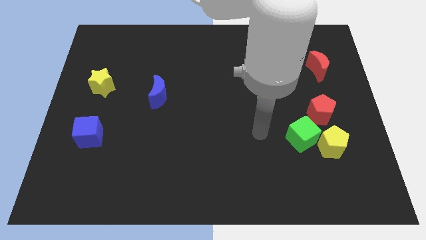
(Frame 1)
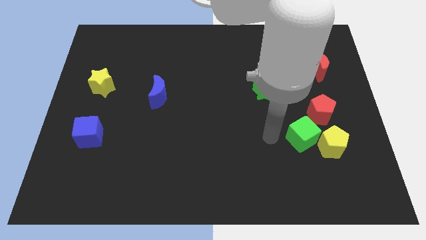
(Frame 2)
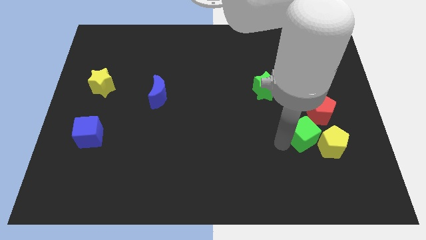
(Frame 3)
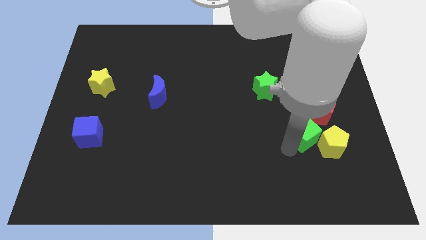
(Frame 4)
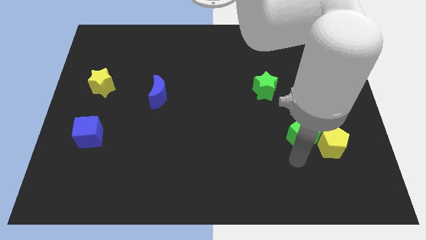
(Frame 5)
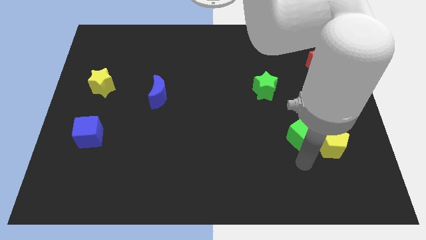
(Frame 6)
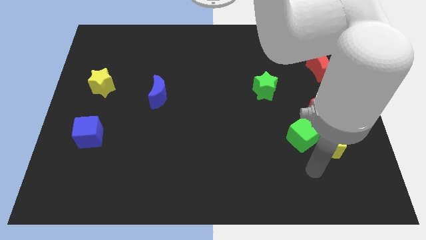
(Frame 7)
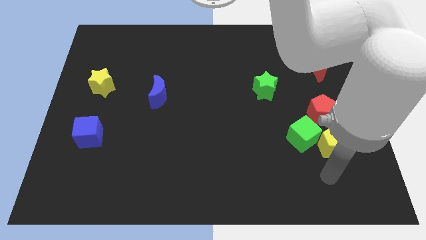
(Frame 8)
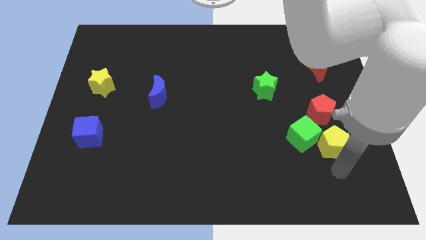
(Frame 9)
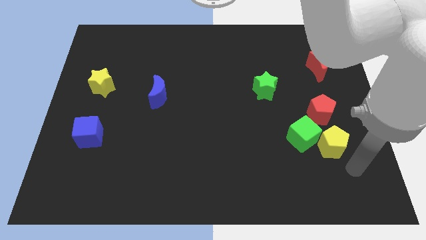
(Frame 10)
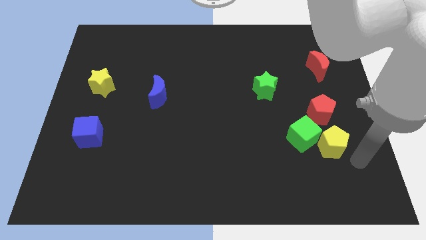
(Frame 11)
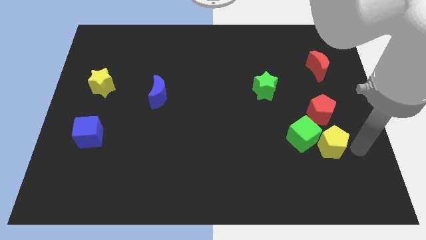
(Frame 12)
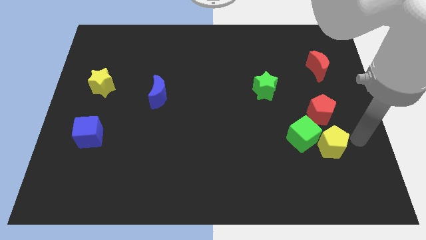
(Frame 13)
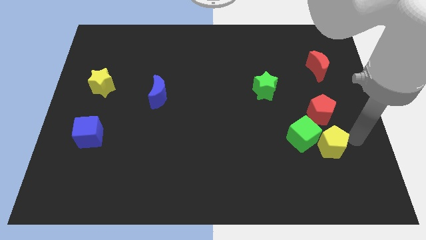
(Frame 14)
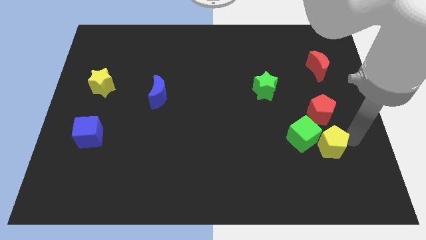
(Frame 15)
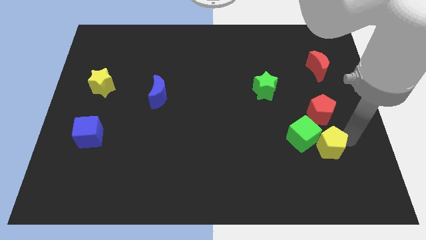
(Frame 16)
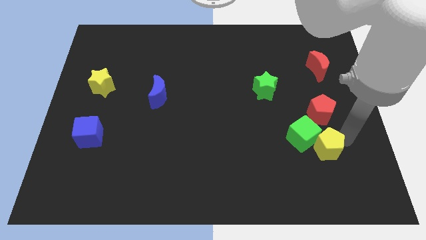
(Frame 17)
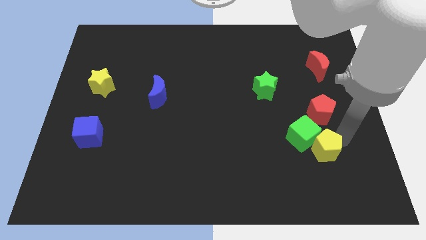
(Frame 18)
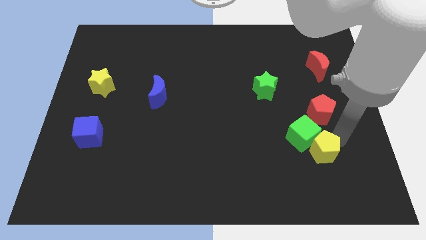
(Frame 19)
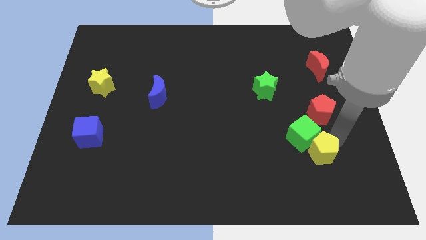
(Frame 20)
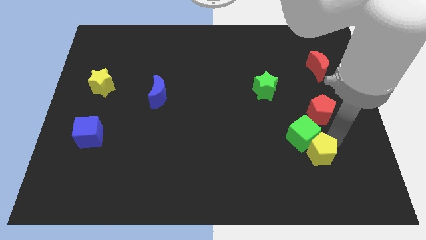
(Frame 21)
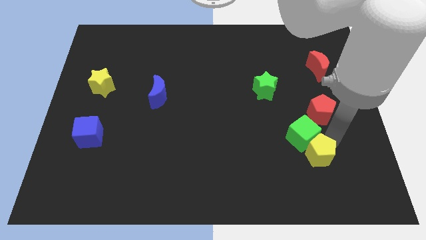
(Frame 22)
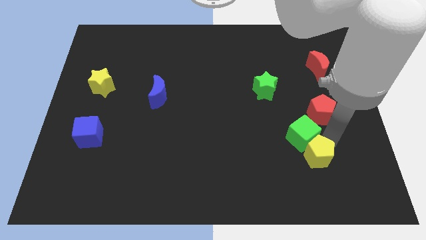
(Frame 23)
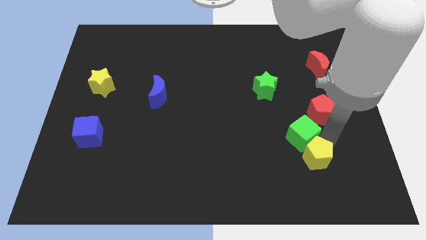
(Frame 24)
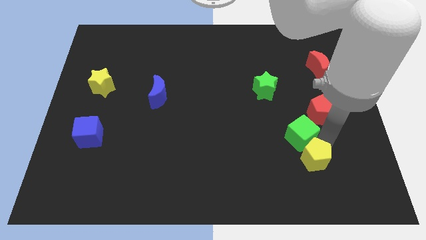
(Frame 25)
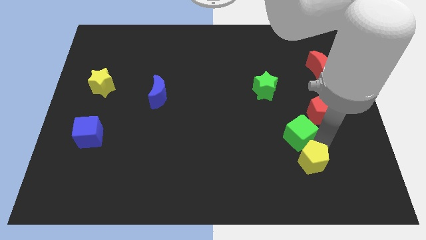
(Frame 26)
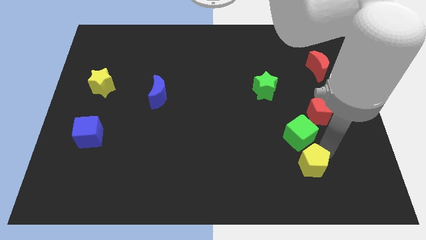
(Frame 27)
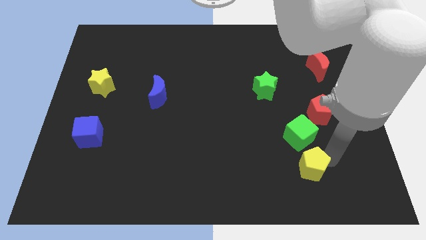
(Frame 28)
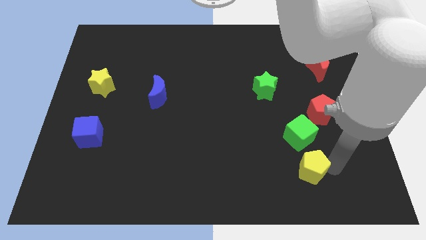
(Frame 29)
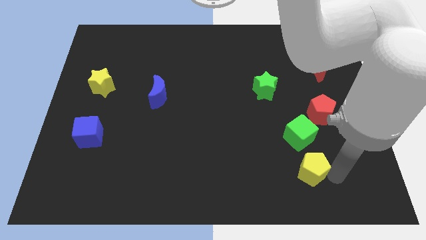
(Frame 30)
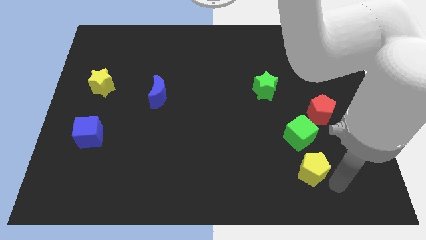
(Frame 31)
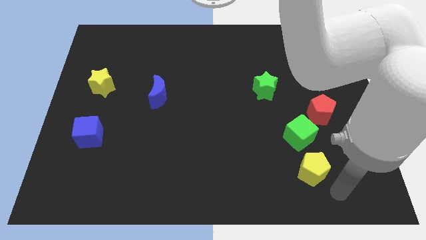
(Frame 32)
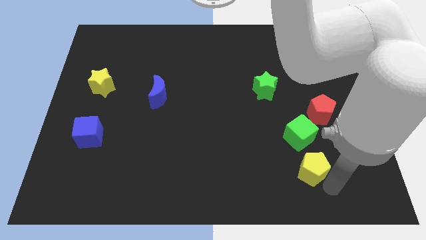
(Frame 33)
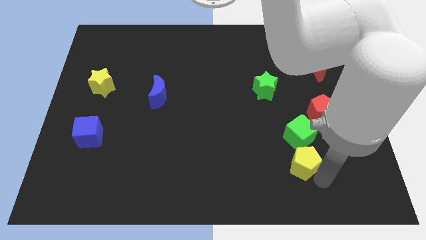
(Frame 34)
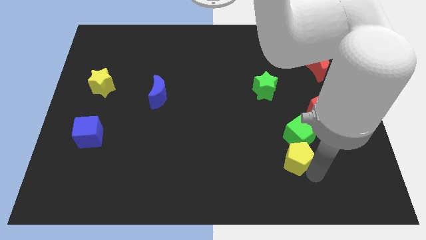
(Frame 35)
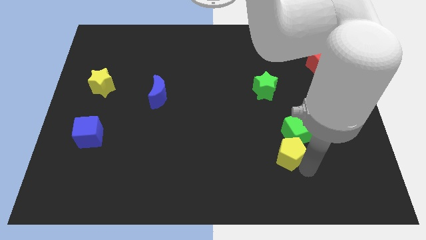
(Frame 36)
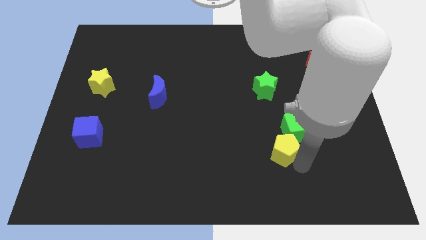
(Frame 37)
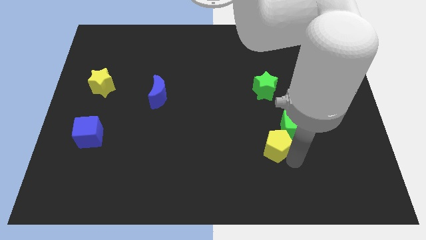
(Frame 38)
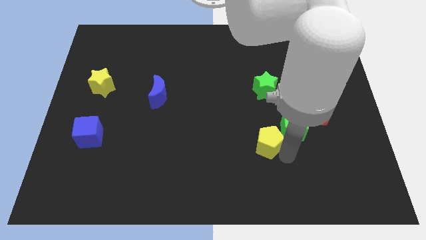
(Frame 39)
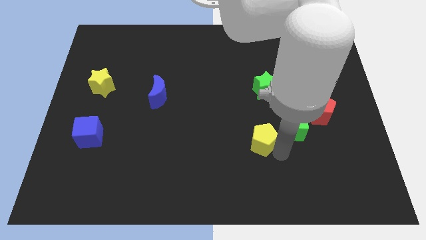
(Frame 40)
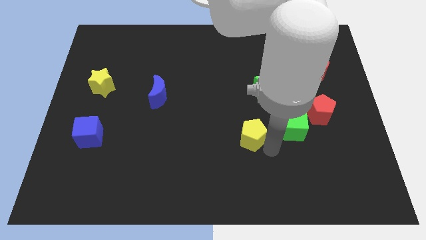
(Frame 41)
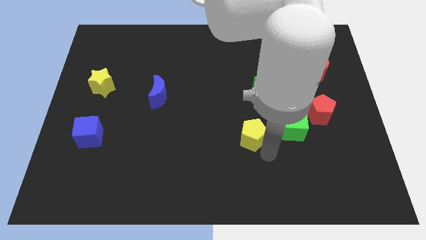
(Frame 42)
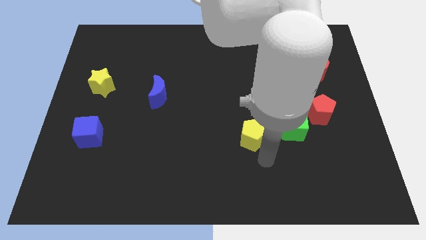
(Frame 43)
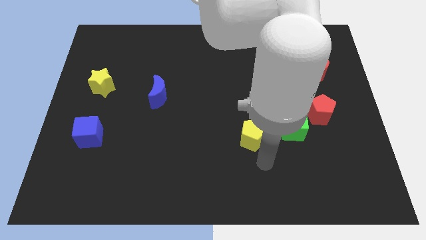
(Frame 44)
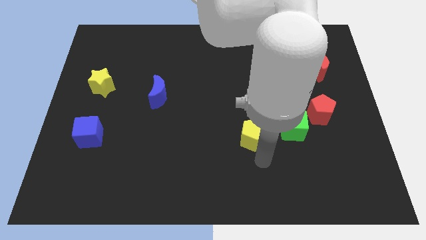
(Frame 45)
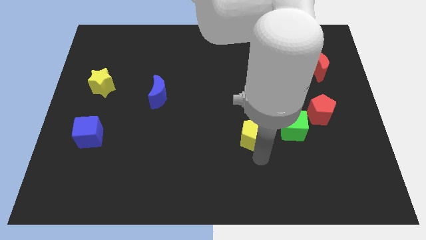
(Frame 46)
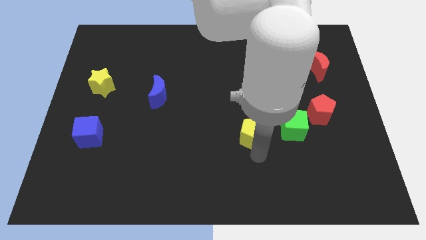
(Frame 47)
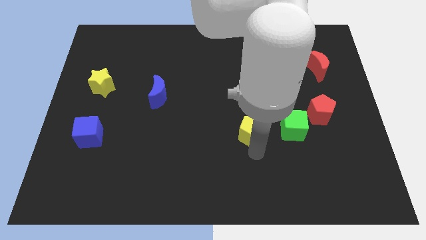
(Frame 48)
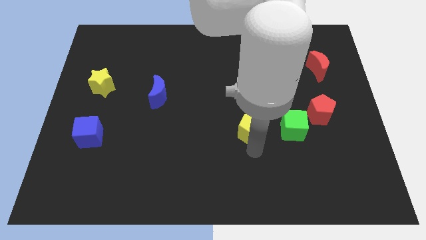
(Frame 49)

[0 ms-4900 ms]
move the yellow pentagon to the center

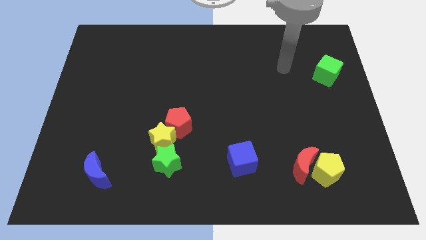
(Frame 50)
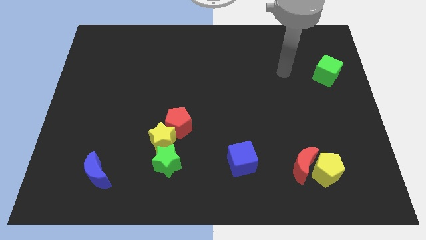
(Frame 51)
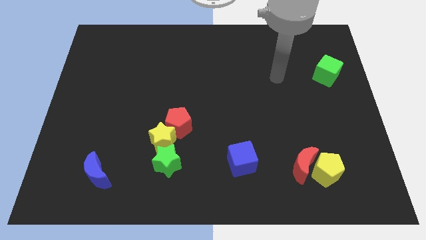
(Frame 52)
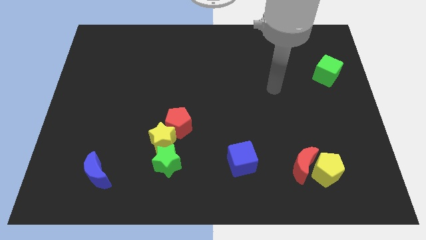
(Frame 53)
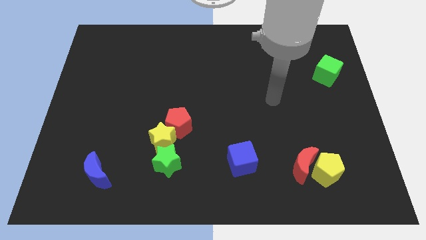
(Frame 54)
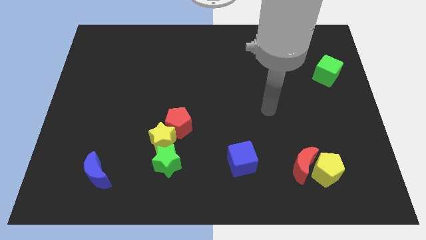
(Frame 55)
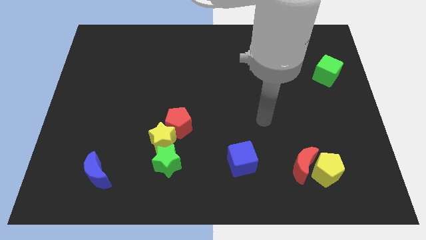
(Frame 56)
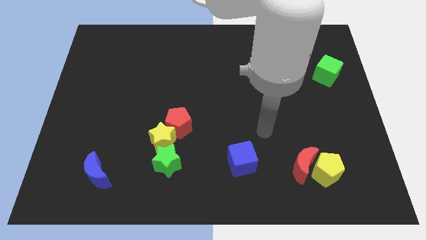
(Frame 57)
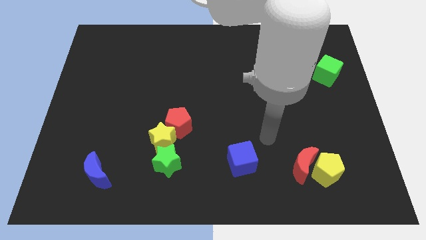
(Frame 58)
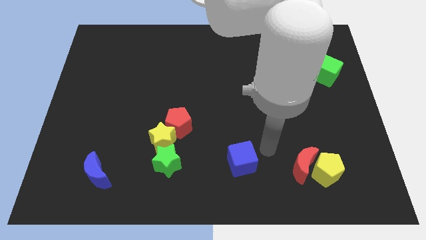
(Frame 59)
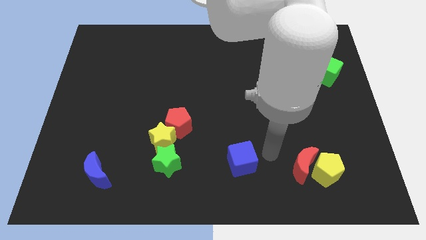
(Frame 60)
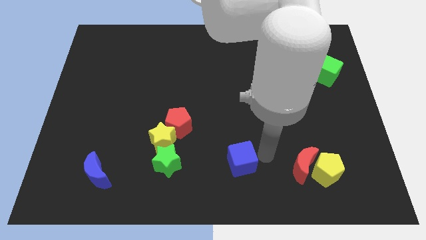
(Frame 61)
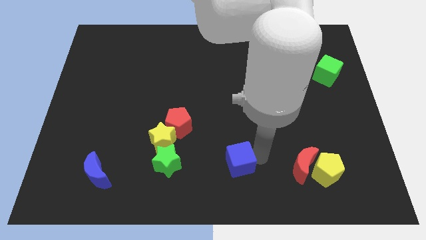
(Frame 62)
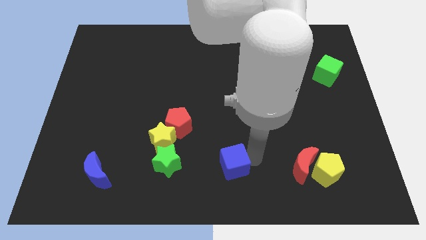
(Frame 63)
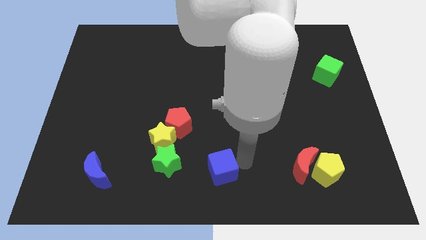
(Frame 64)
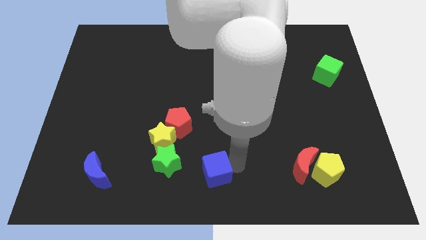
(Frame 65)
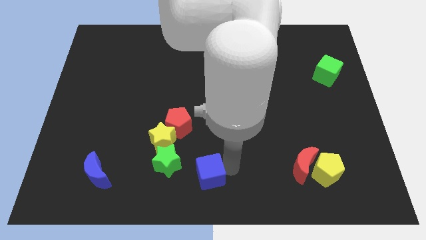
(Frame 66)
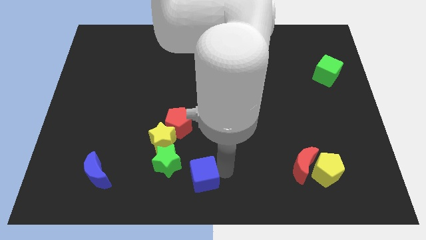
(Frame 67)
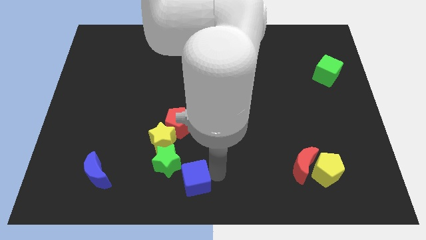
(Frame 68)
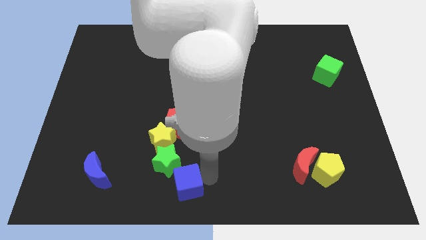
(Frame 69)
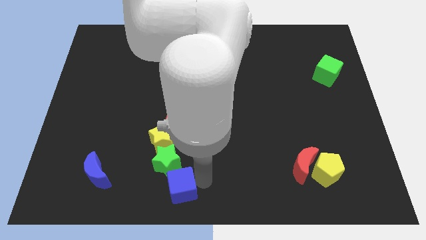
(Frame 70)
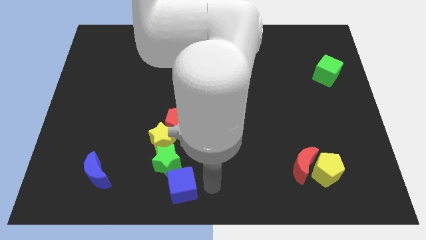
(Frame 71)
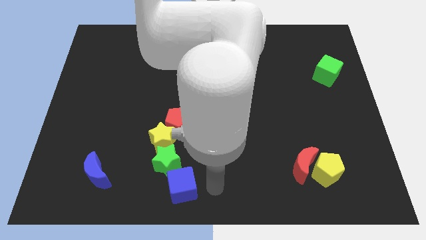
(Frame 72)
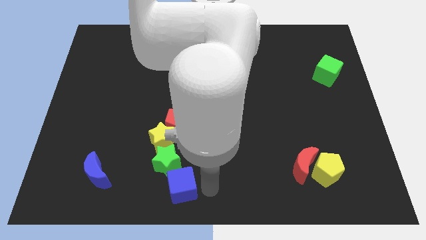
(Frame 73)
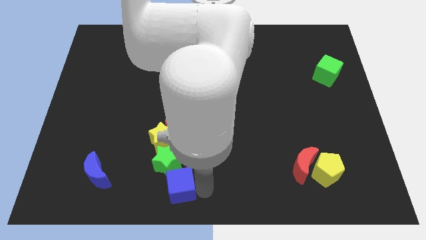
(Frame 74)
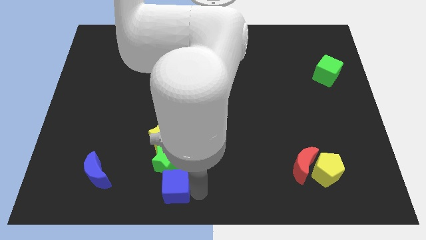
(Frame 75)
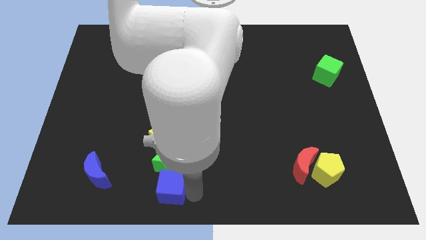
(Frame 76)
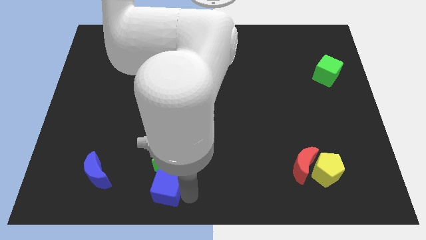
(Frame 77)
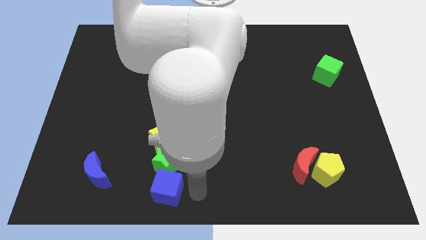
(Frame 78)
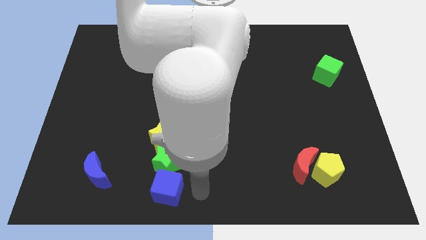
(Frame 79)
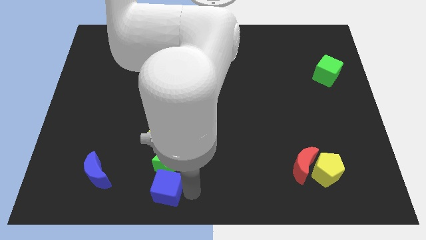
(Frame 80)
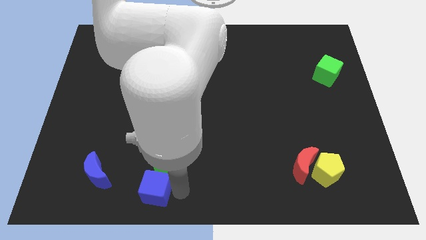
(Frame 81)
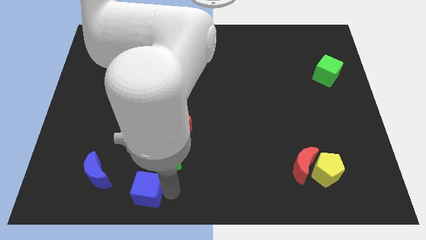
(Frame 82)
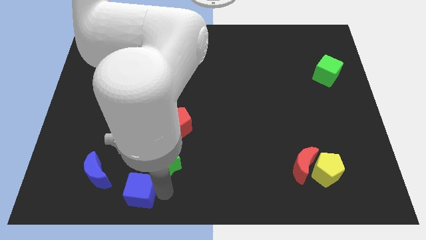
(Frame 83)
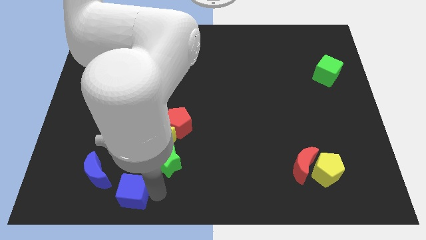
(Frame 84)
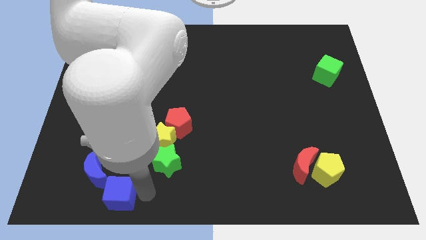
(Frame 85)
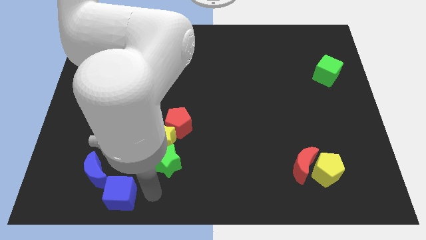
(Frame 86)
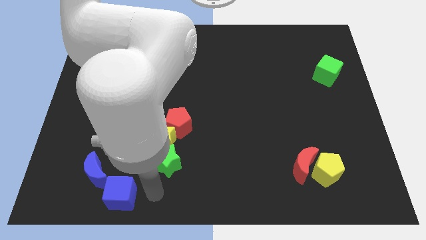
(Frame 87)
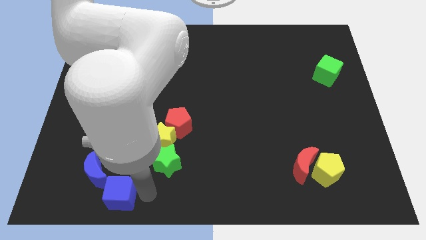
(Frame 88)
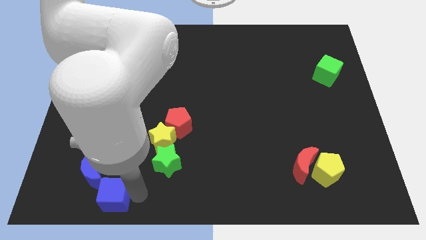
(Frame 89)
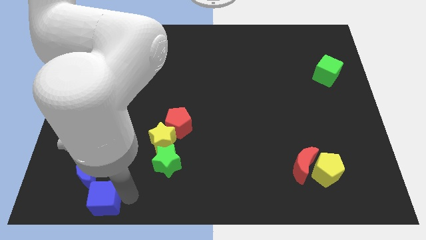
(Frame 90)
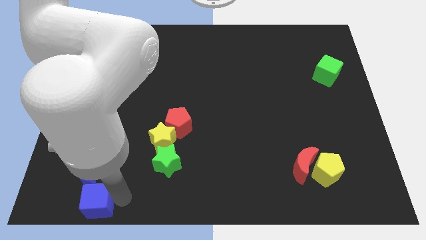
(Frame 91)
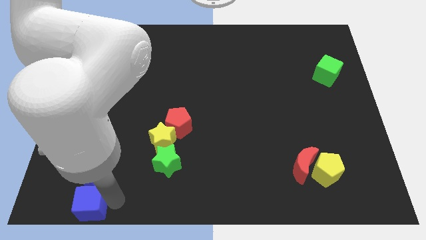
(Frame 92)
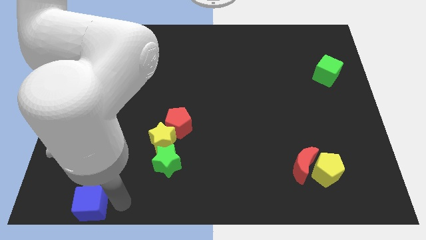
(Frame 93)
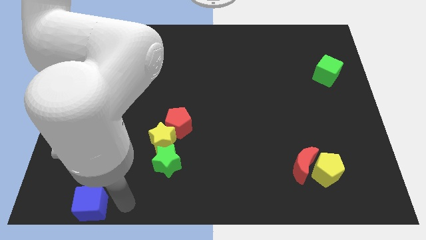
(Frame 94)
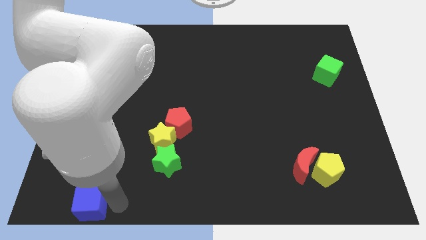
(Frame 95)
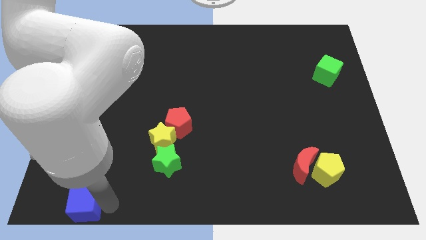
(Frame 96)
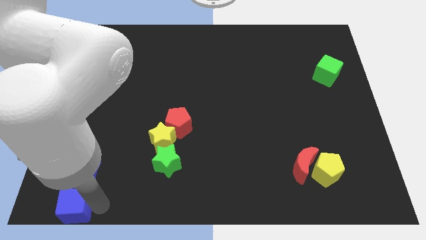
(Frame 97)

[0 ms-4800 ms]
push the blue cube to the bottom left of the board
